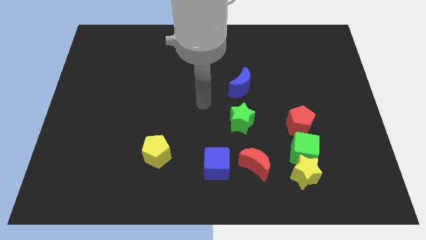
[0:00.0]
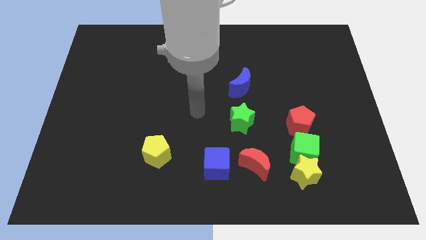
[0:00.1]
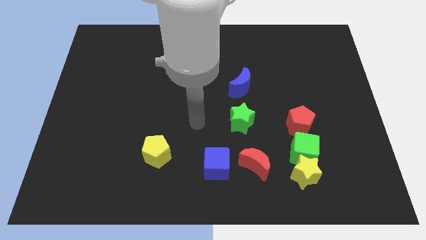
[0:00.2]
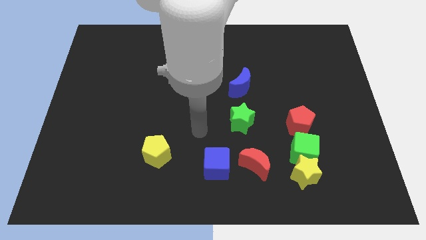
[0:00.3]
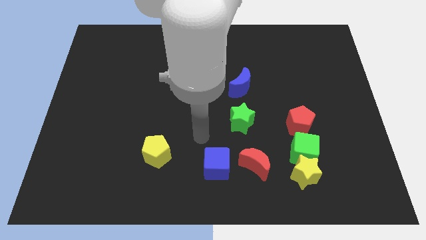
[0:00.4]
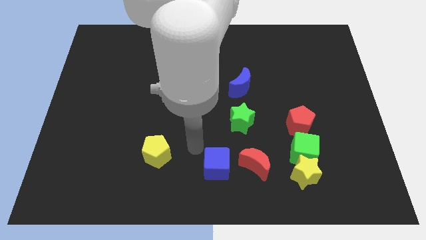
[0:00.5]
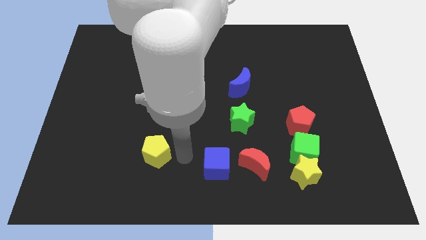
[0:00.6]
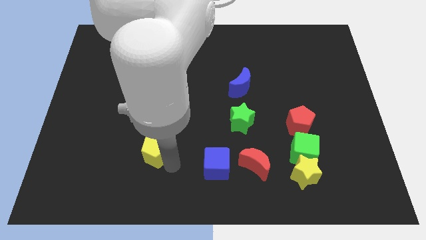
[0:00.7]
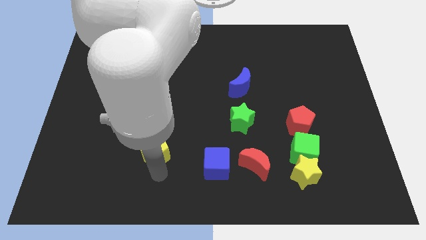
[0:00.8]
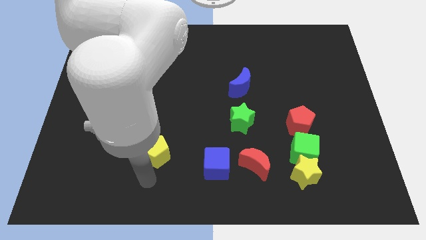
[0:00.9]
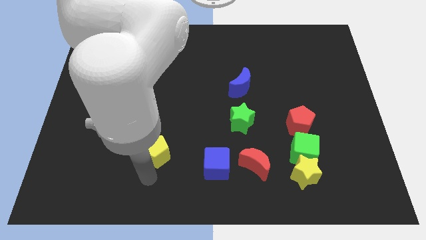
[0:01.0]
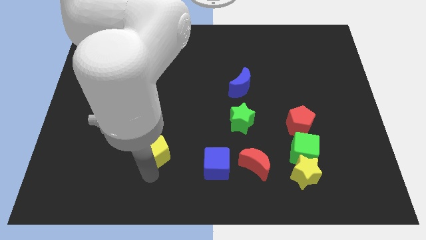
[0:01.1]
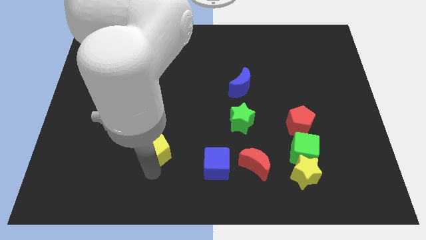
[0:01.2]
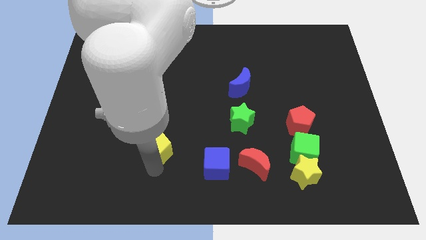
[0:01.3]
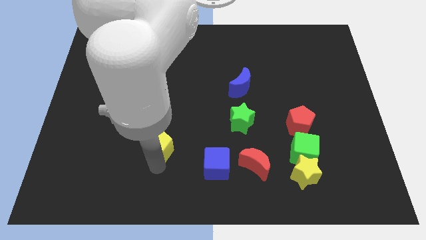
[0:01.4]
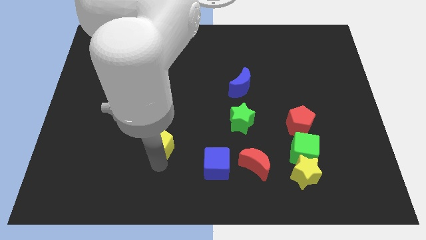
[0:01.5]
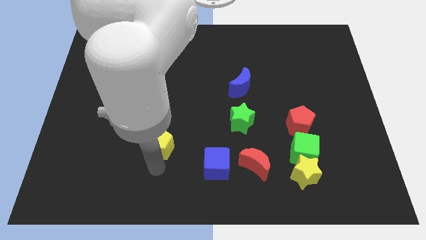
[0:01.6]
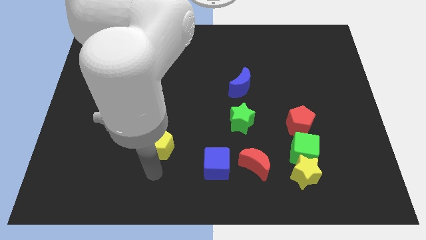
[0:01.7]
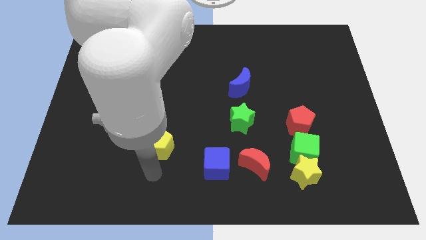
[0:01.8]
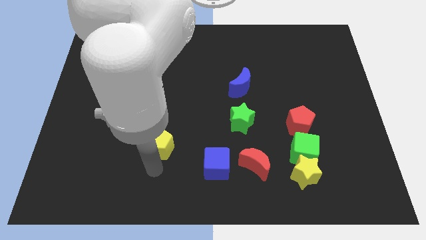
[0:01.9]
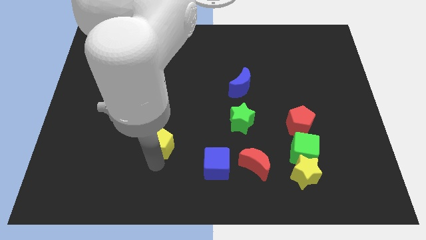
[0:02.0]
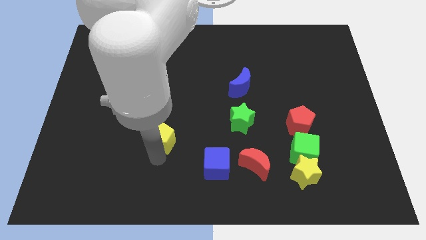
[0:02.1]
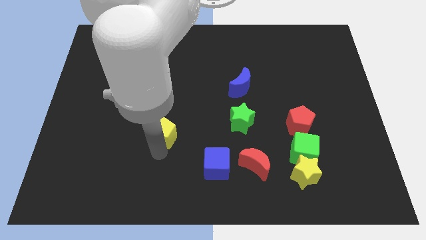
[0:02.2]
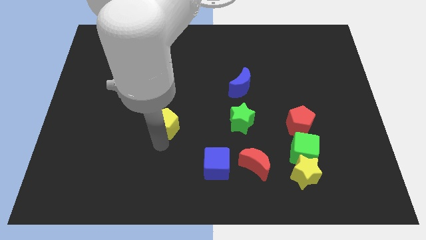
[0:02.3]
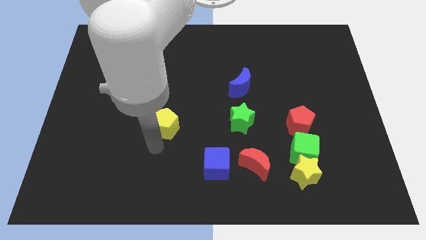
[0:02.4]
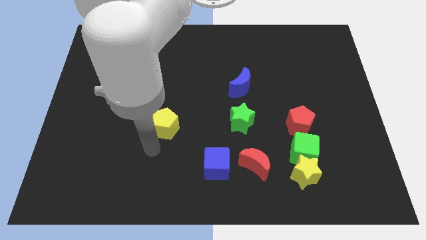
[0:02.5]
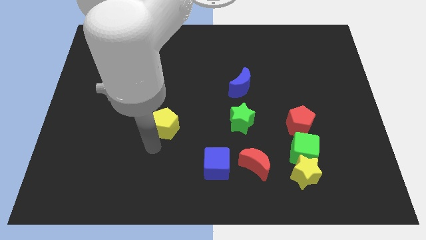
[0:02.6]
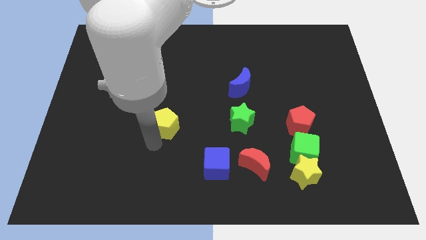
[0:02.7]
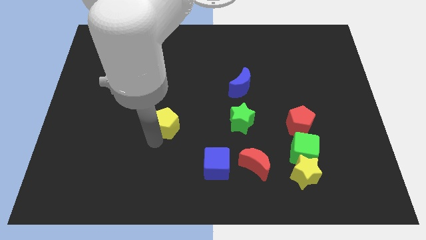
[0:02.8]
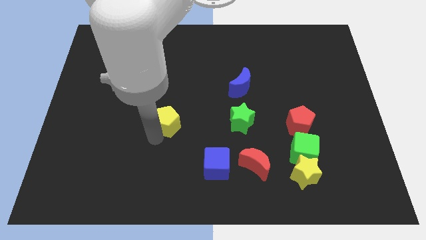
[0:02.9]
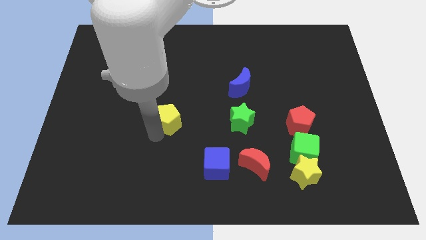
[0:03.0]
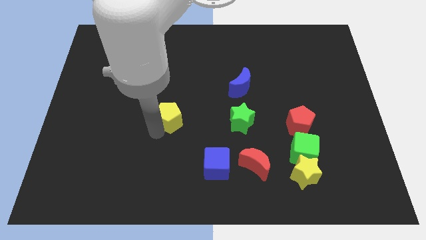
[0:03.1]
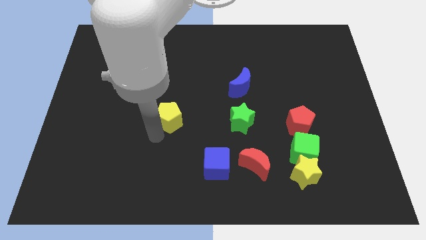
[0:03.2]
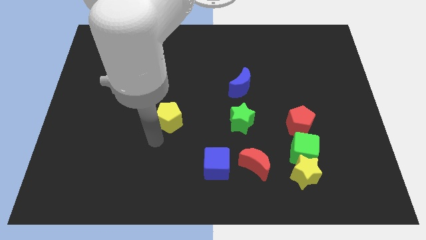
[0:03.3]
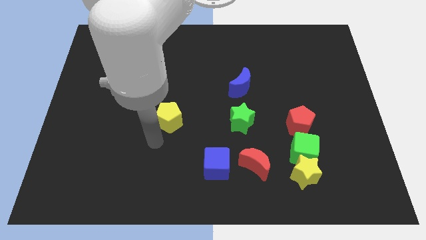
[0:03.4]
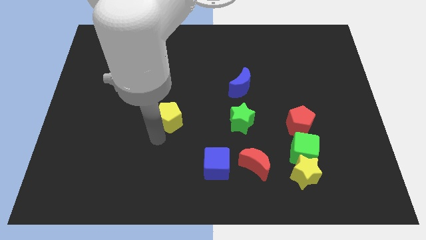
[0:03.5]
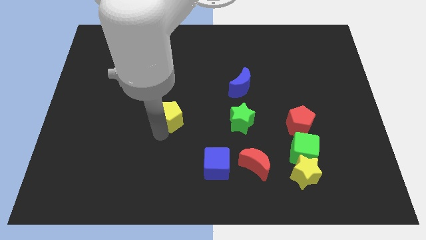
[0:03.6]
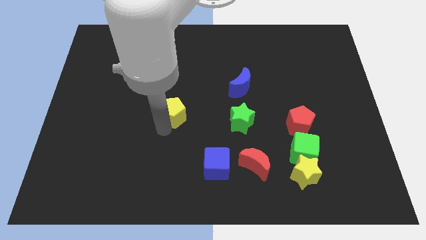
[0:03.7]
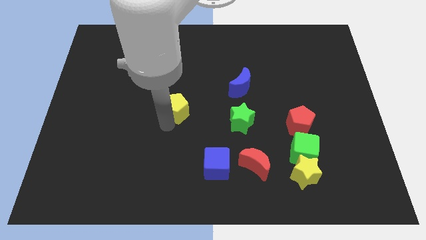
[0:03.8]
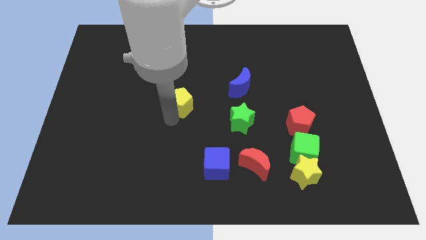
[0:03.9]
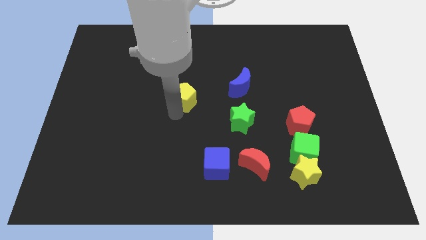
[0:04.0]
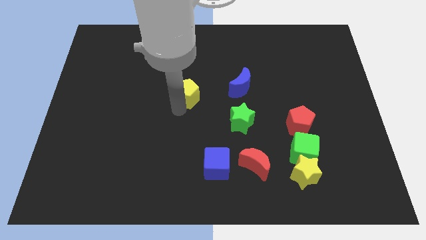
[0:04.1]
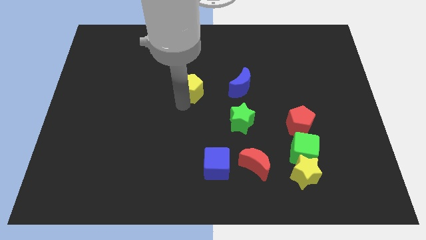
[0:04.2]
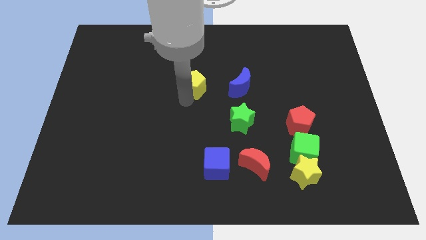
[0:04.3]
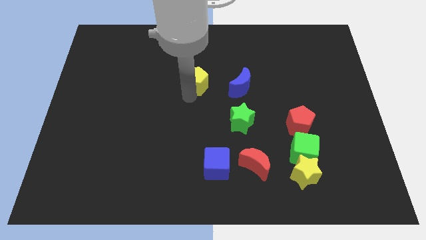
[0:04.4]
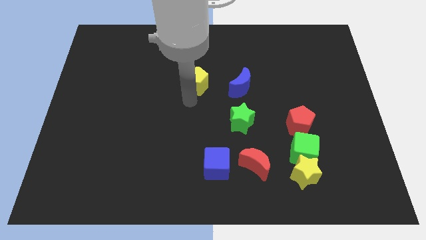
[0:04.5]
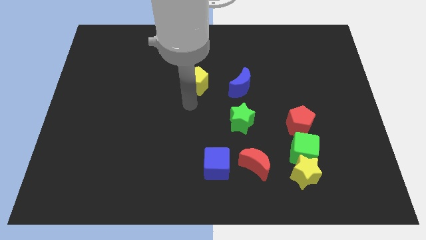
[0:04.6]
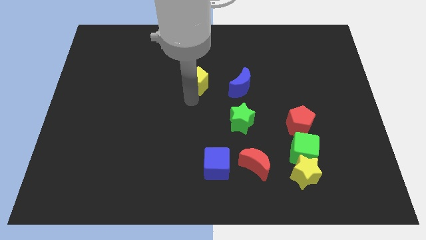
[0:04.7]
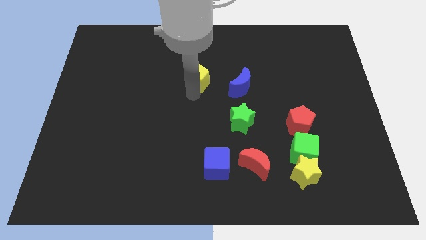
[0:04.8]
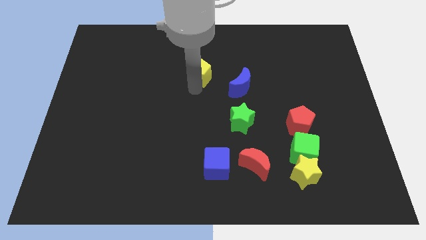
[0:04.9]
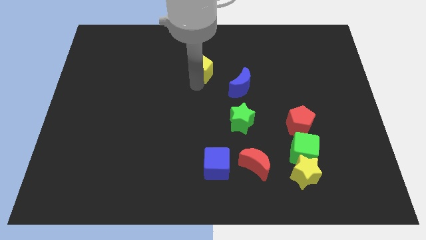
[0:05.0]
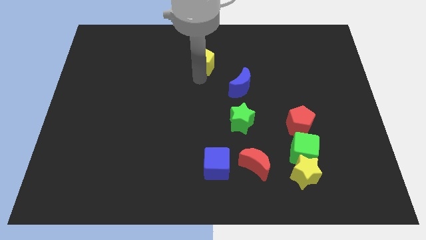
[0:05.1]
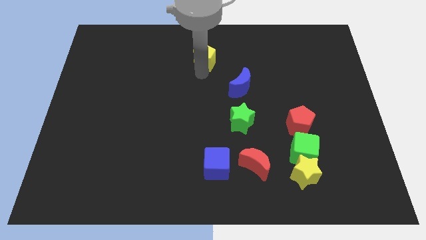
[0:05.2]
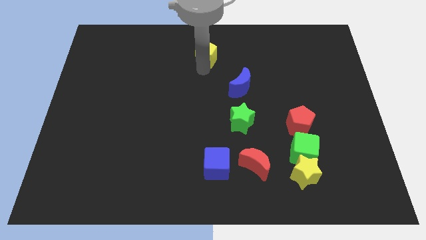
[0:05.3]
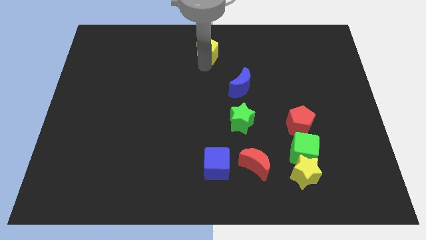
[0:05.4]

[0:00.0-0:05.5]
put the yellow pentagon to the top side

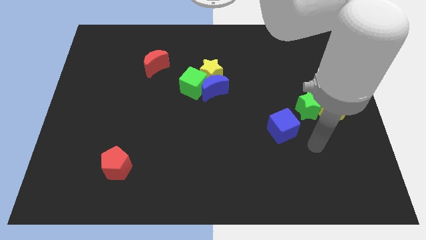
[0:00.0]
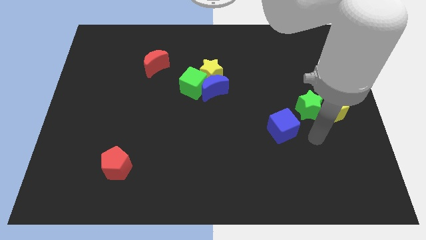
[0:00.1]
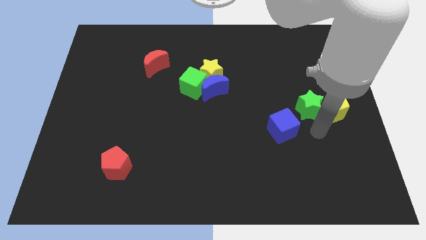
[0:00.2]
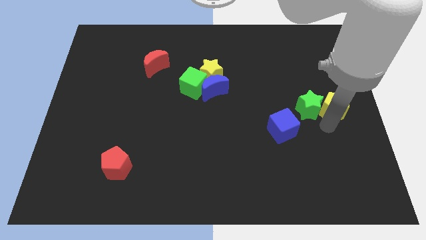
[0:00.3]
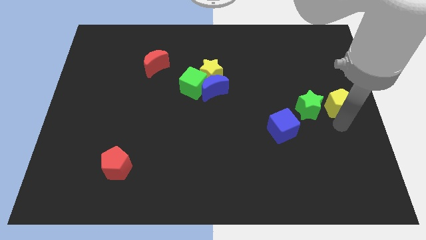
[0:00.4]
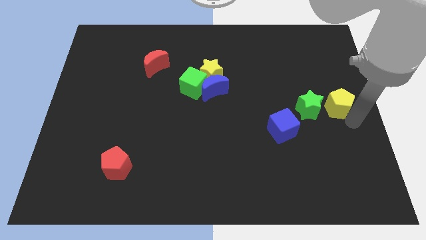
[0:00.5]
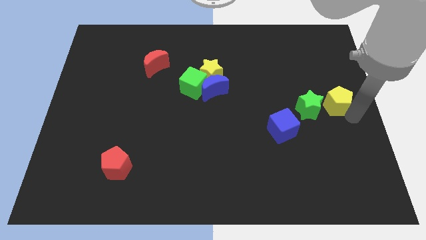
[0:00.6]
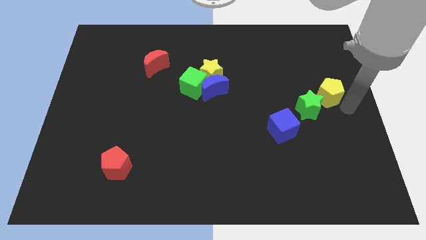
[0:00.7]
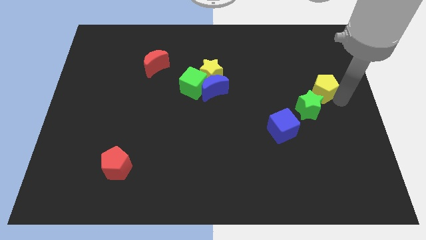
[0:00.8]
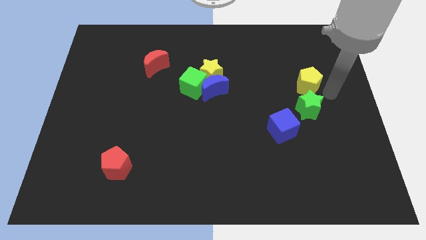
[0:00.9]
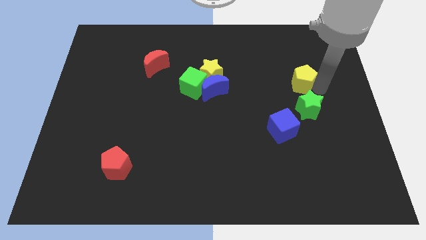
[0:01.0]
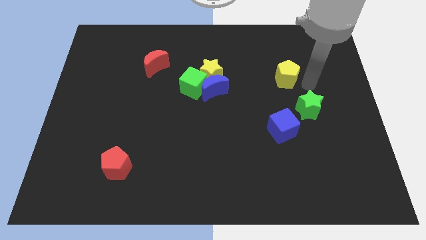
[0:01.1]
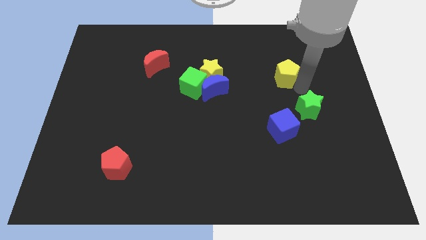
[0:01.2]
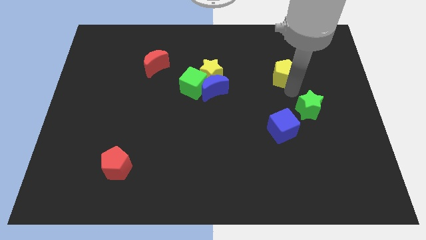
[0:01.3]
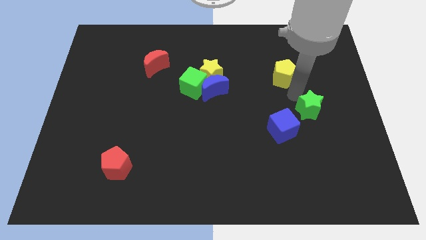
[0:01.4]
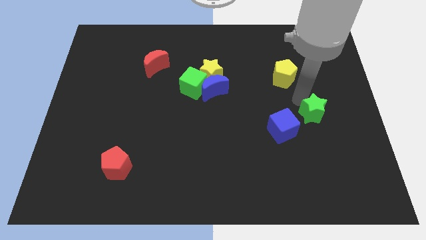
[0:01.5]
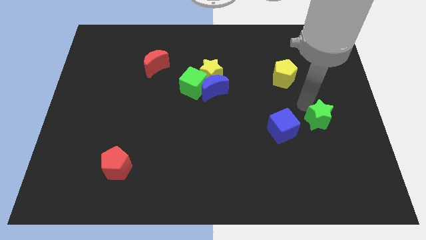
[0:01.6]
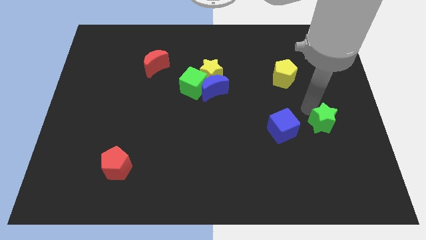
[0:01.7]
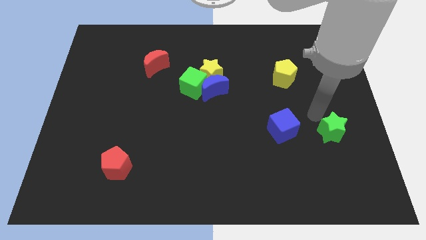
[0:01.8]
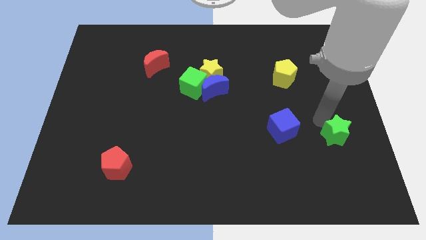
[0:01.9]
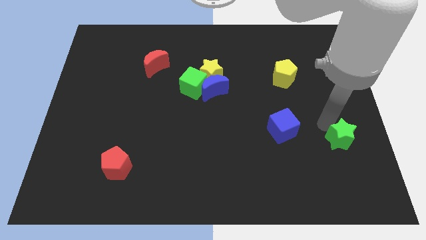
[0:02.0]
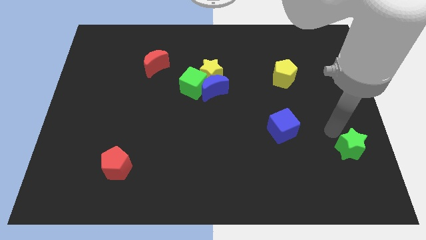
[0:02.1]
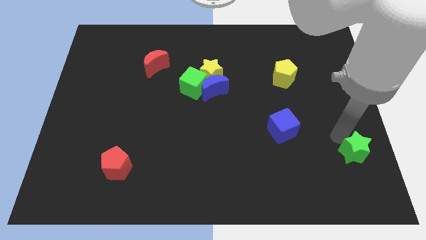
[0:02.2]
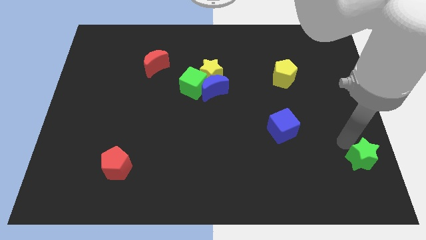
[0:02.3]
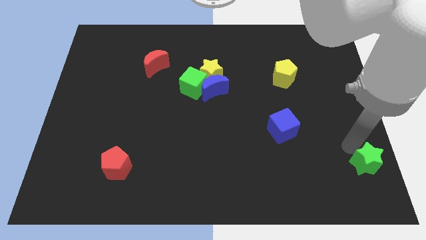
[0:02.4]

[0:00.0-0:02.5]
push the green star to the lower right corner
